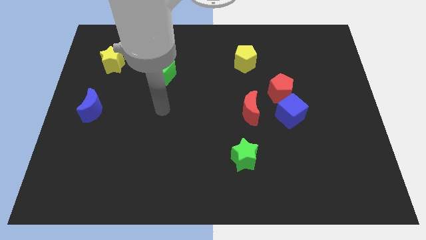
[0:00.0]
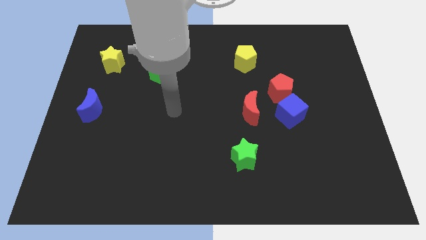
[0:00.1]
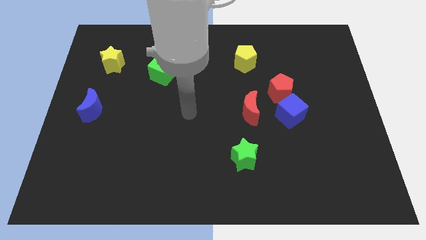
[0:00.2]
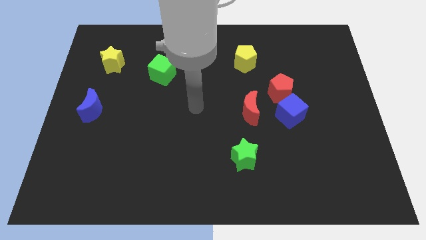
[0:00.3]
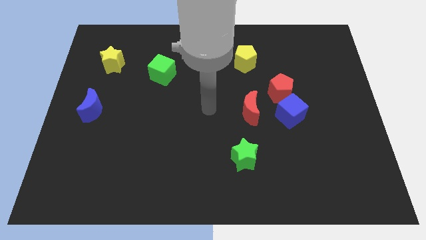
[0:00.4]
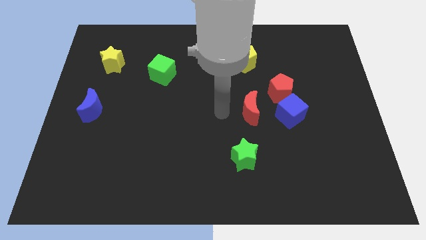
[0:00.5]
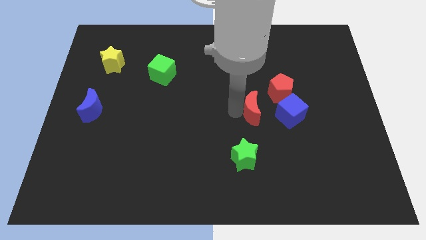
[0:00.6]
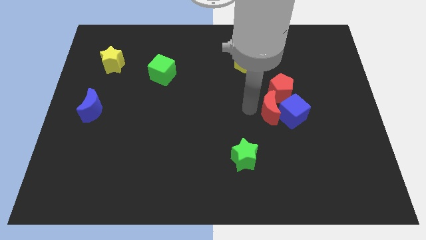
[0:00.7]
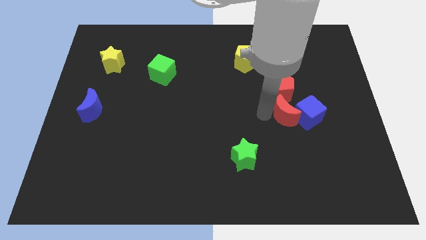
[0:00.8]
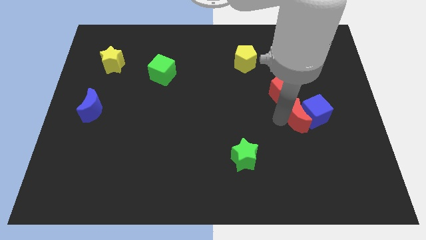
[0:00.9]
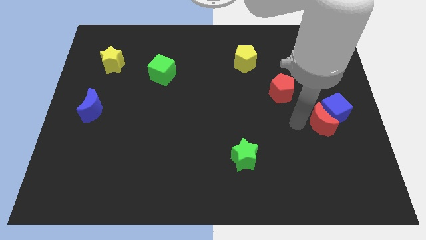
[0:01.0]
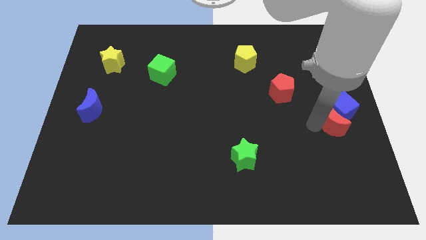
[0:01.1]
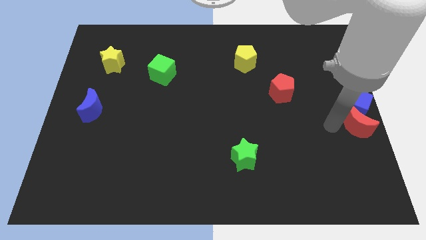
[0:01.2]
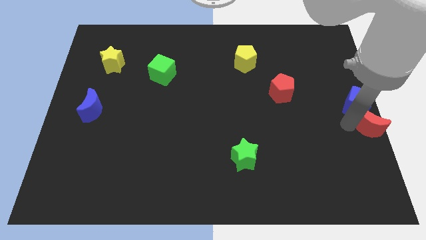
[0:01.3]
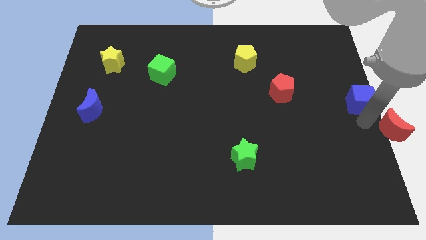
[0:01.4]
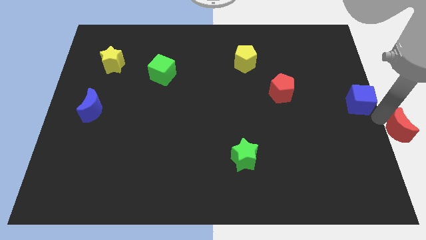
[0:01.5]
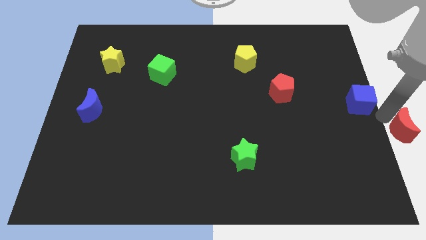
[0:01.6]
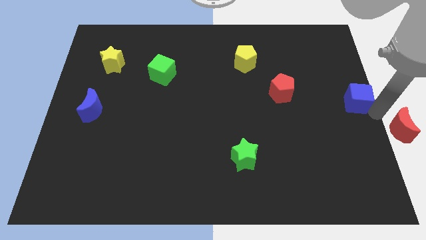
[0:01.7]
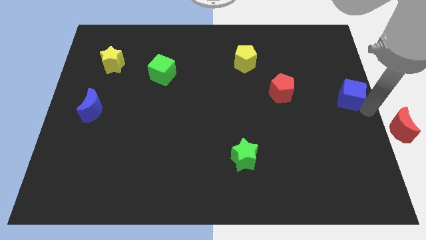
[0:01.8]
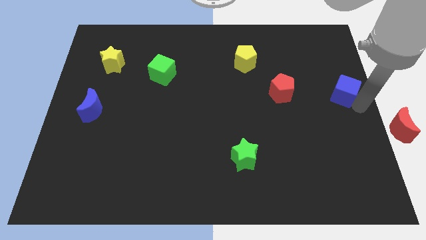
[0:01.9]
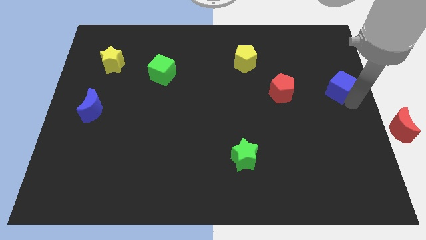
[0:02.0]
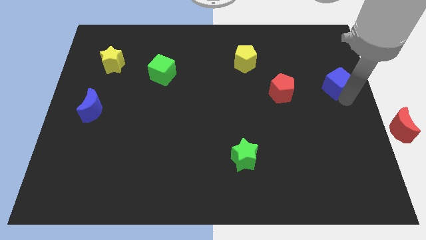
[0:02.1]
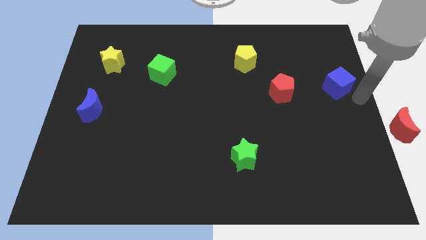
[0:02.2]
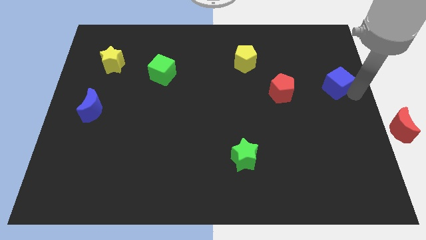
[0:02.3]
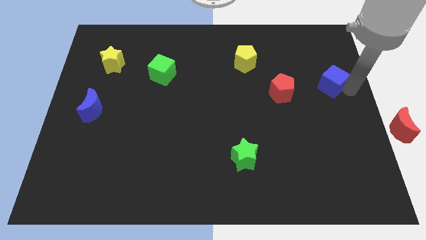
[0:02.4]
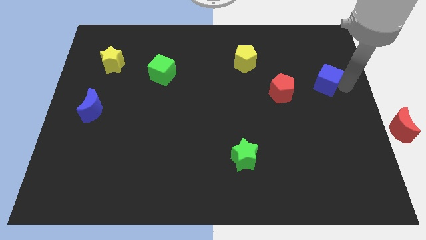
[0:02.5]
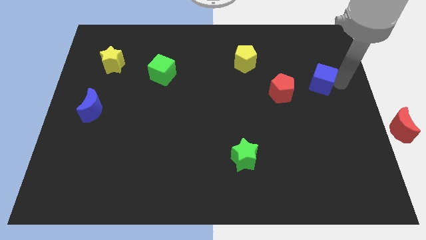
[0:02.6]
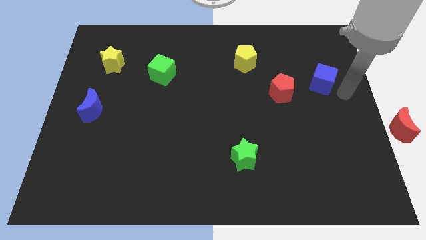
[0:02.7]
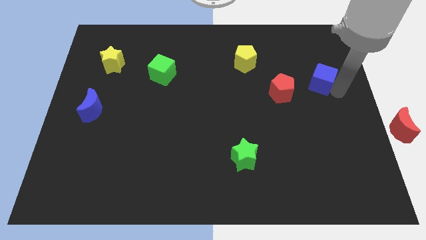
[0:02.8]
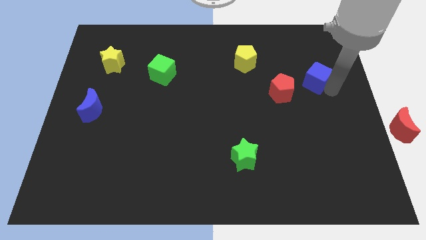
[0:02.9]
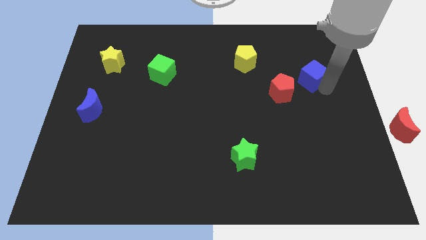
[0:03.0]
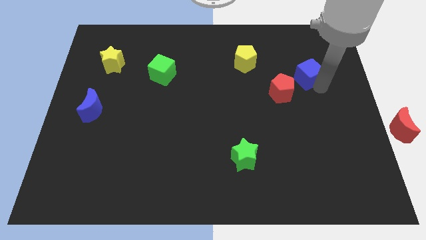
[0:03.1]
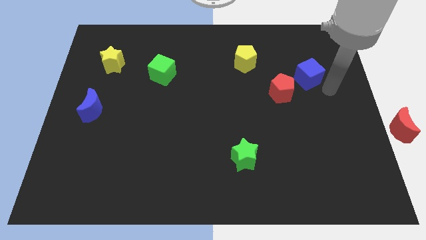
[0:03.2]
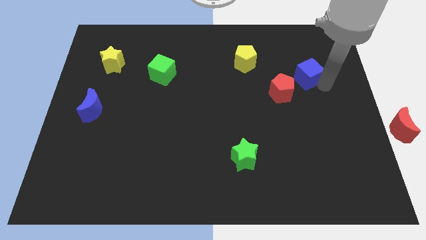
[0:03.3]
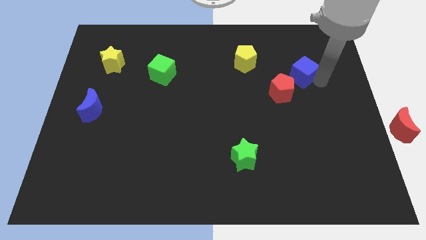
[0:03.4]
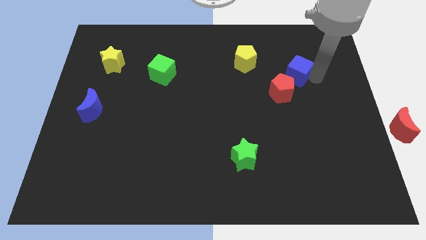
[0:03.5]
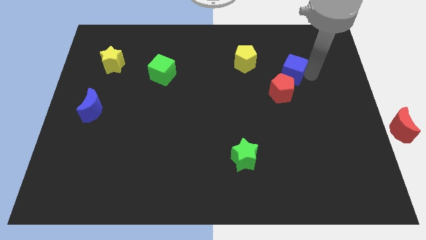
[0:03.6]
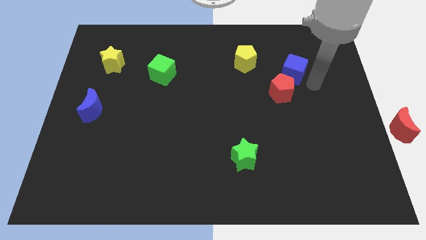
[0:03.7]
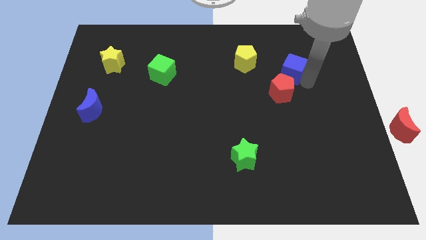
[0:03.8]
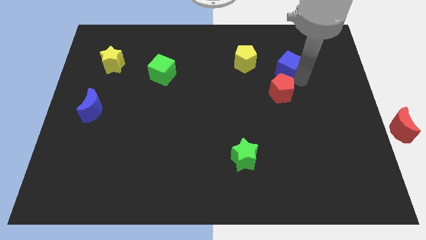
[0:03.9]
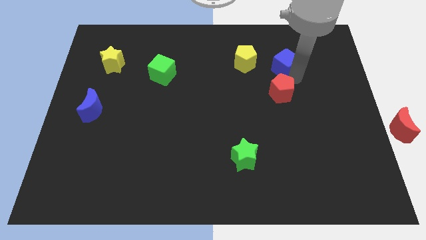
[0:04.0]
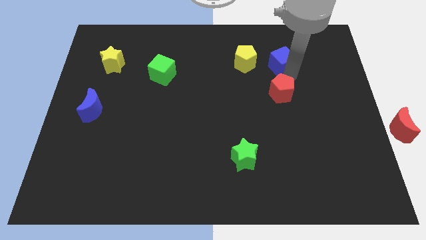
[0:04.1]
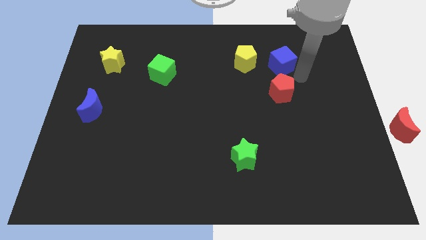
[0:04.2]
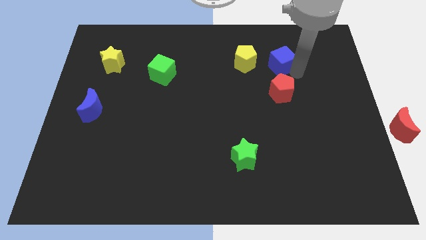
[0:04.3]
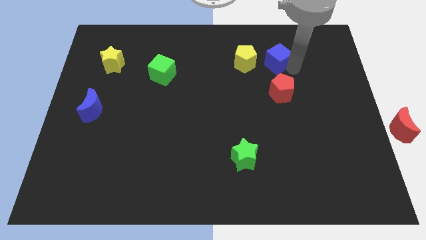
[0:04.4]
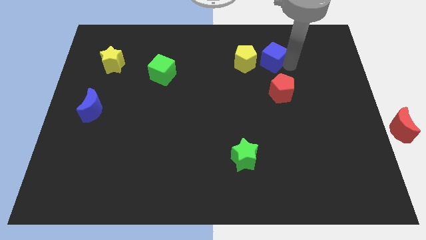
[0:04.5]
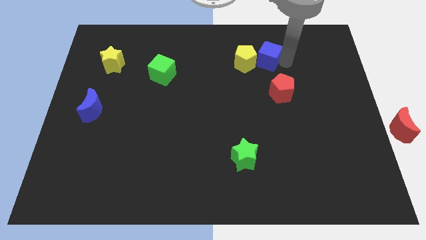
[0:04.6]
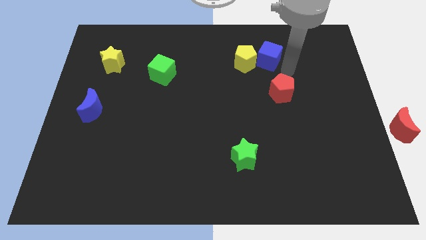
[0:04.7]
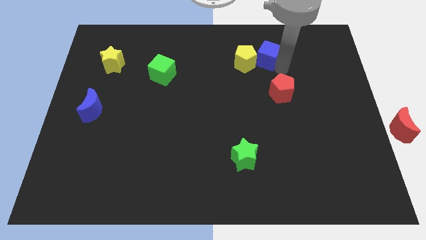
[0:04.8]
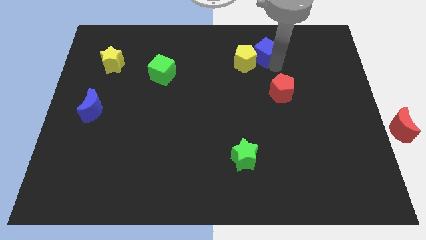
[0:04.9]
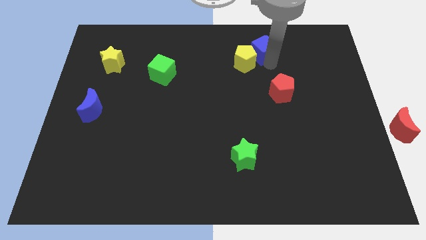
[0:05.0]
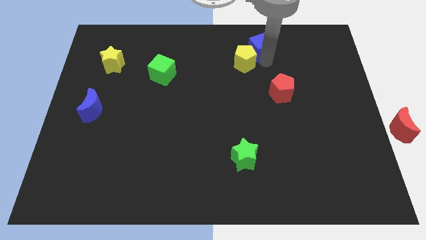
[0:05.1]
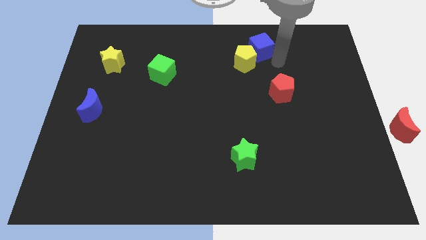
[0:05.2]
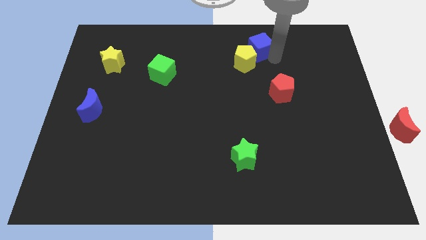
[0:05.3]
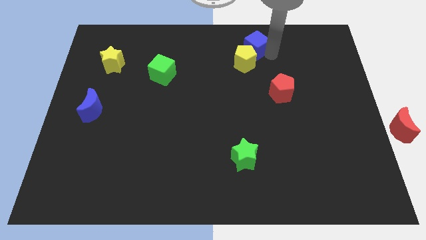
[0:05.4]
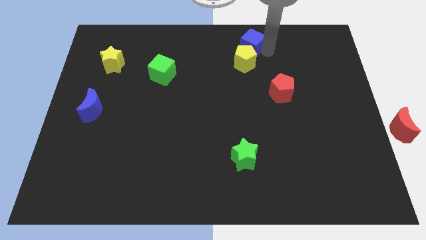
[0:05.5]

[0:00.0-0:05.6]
push the blue cube to the top

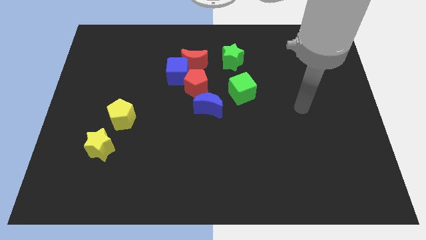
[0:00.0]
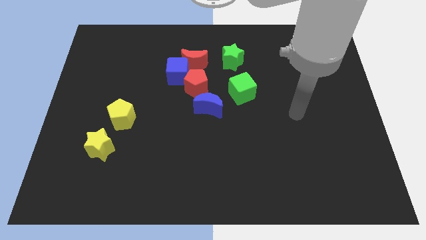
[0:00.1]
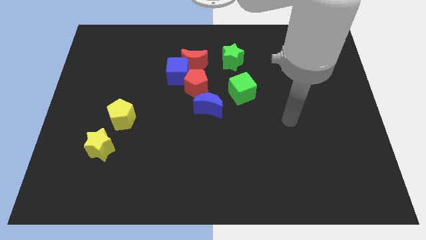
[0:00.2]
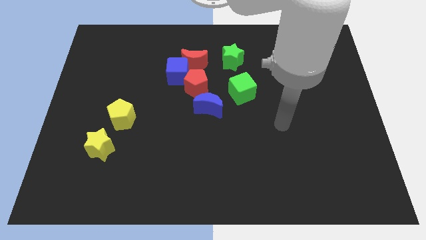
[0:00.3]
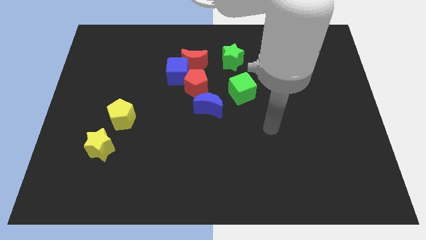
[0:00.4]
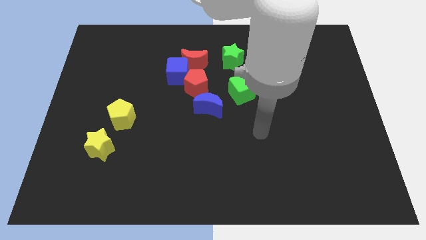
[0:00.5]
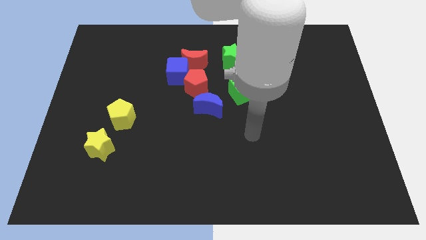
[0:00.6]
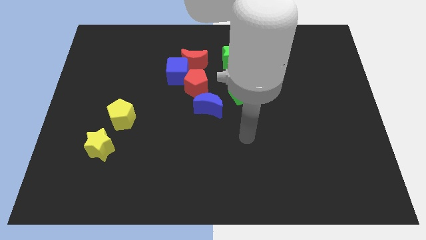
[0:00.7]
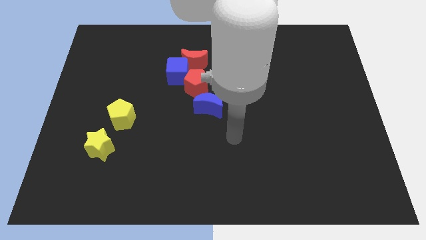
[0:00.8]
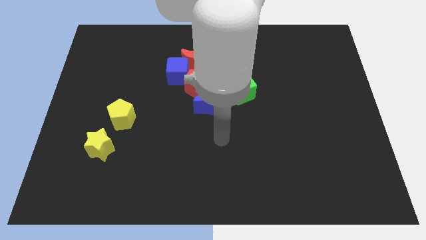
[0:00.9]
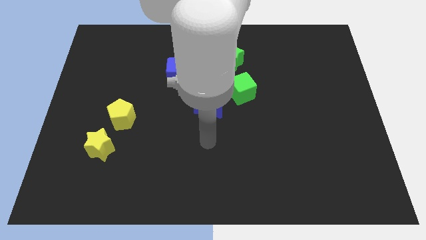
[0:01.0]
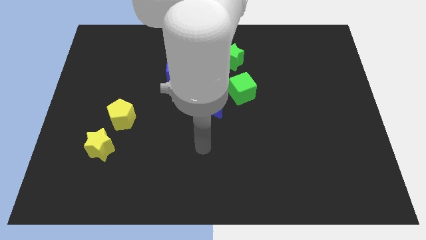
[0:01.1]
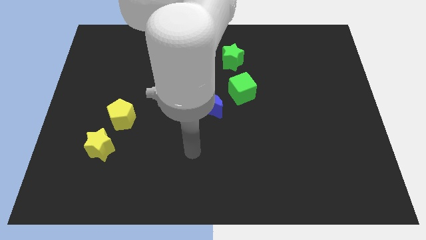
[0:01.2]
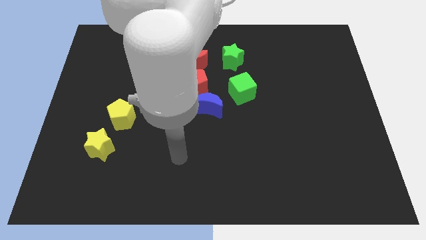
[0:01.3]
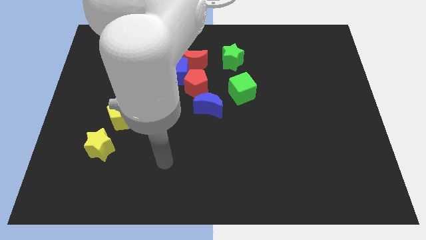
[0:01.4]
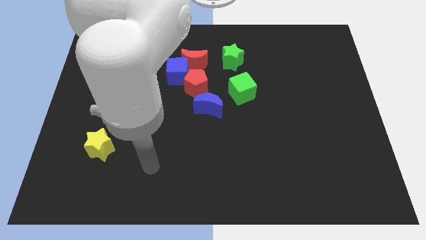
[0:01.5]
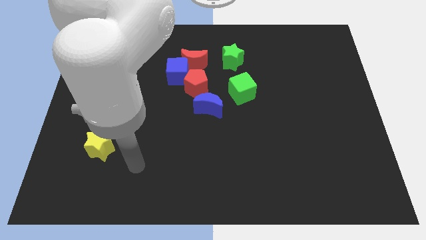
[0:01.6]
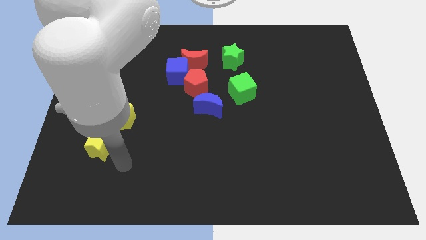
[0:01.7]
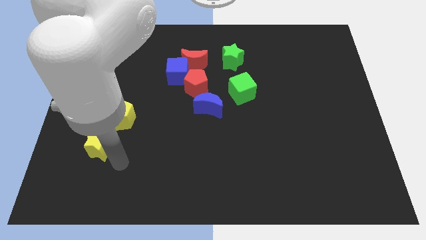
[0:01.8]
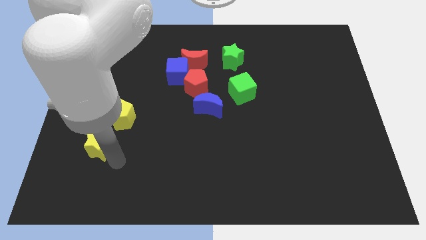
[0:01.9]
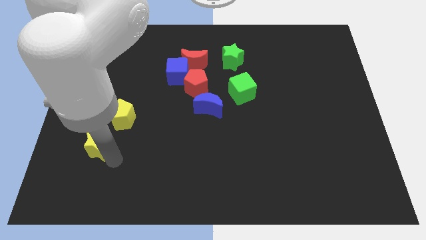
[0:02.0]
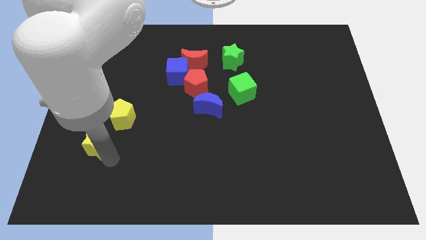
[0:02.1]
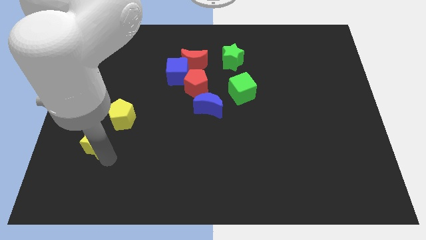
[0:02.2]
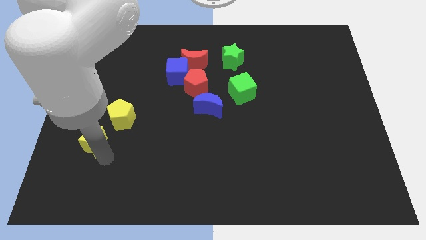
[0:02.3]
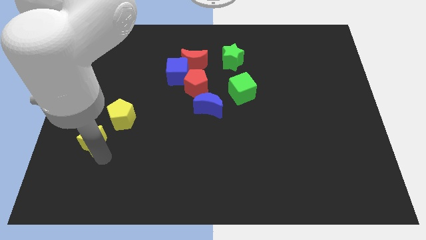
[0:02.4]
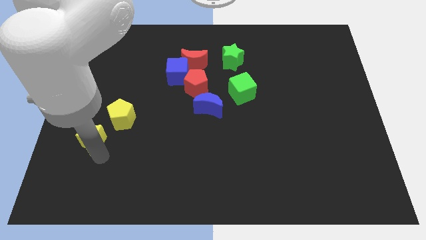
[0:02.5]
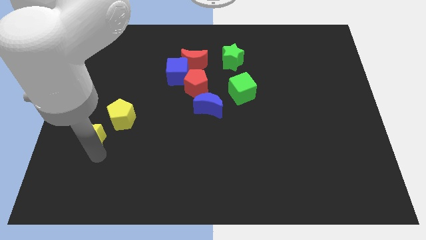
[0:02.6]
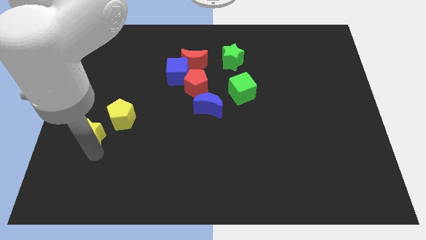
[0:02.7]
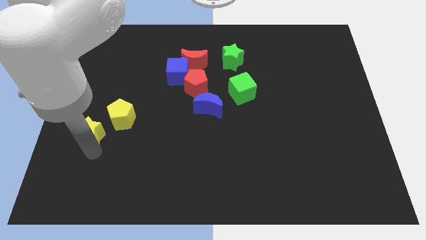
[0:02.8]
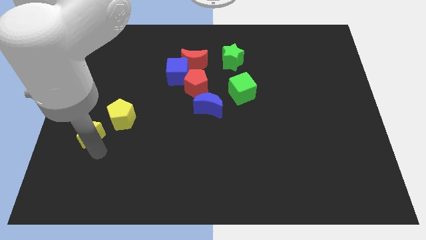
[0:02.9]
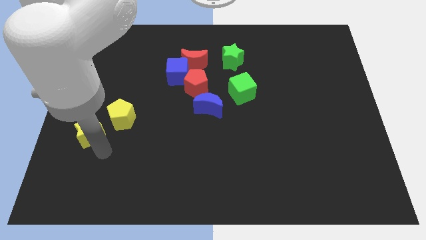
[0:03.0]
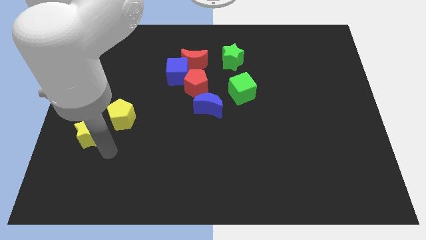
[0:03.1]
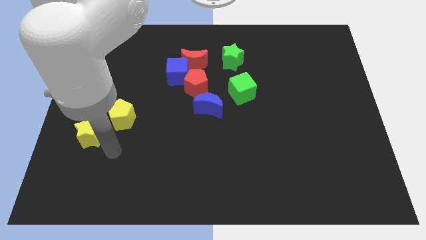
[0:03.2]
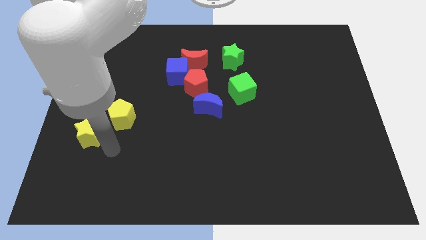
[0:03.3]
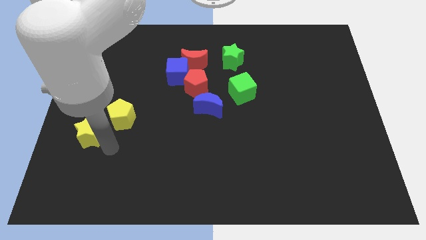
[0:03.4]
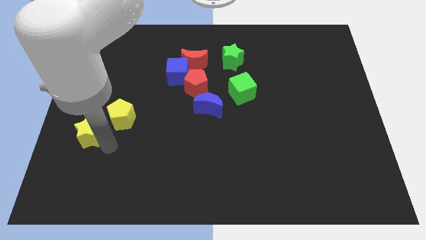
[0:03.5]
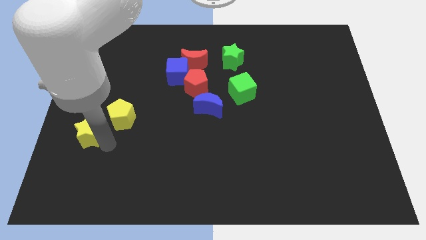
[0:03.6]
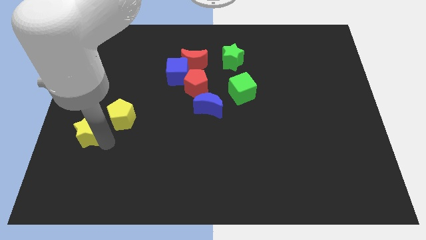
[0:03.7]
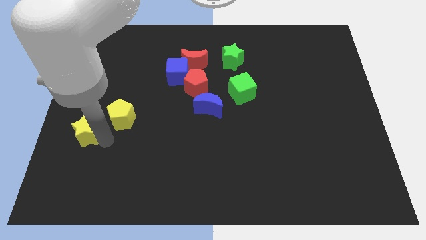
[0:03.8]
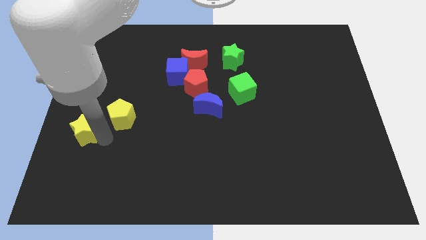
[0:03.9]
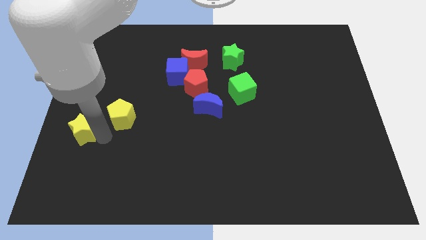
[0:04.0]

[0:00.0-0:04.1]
put the yellow star to the center left
